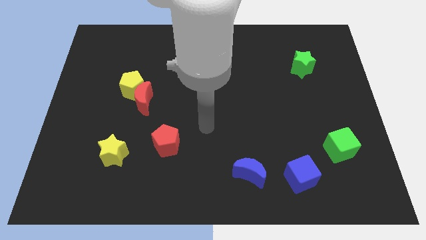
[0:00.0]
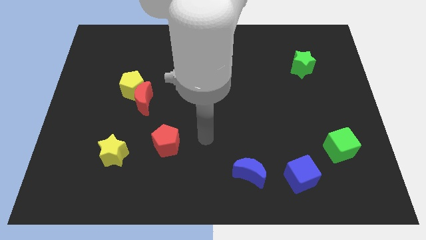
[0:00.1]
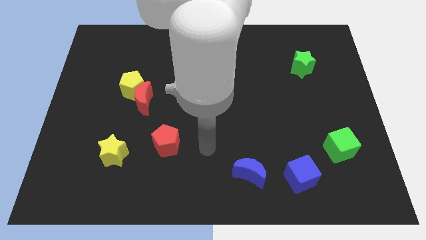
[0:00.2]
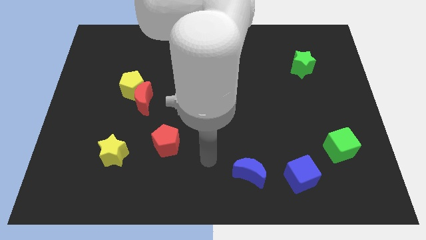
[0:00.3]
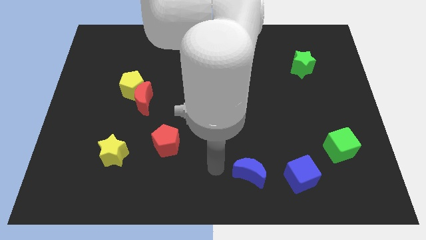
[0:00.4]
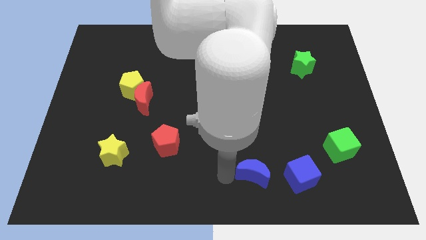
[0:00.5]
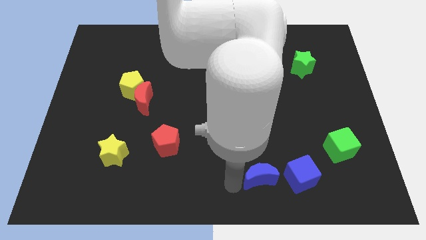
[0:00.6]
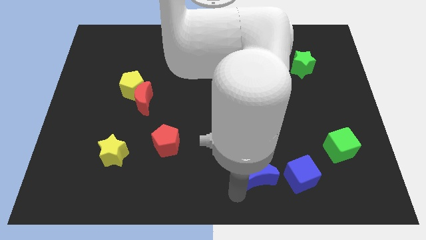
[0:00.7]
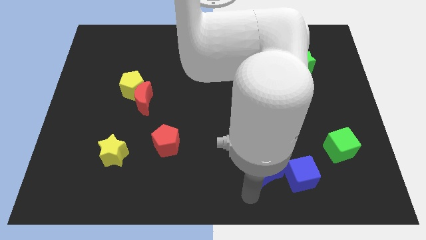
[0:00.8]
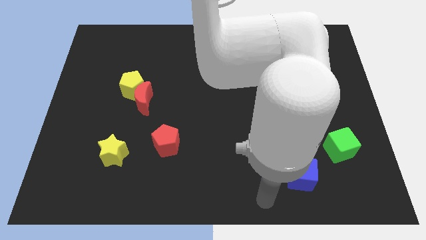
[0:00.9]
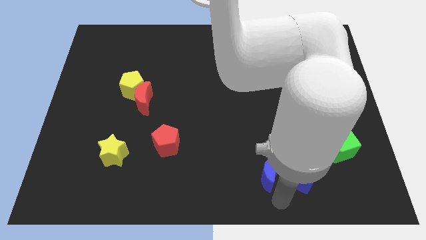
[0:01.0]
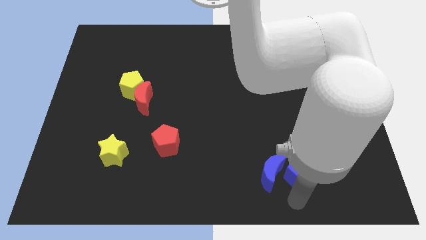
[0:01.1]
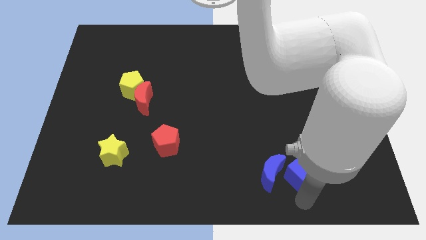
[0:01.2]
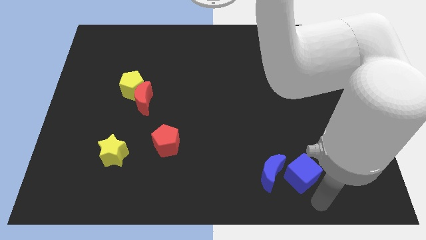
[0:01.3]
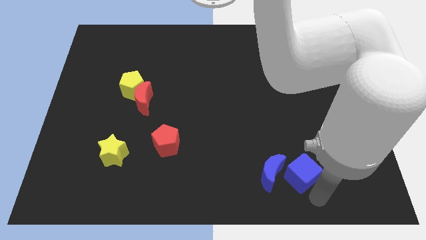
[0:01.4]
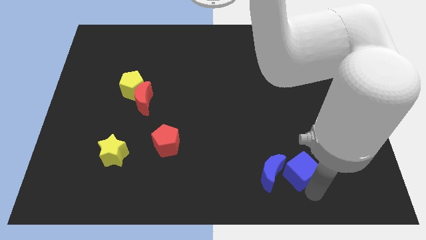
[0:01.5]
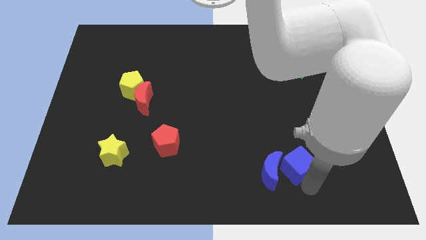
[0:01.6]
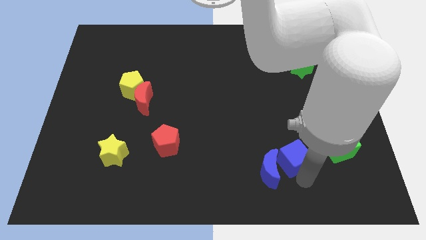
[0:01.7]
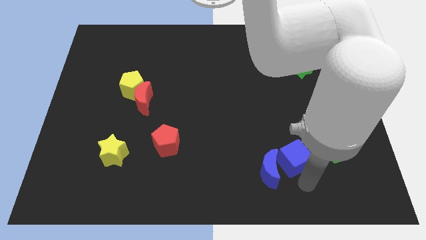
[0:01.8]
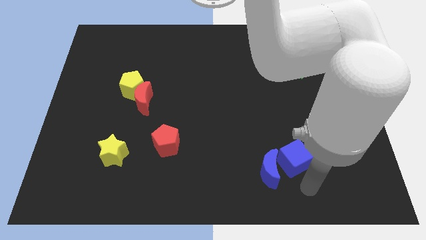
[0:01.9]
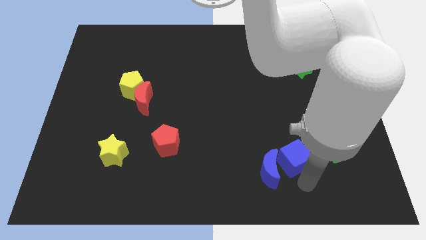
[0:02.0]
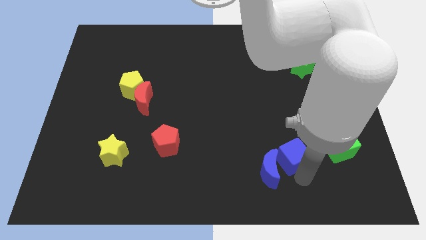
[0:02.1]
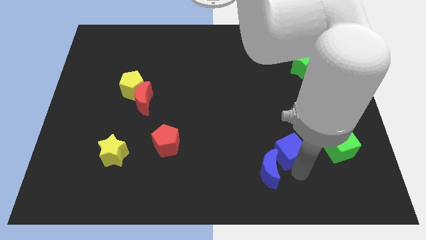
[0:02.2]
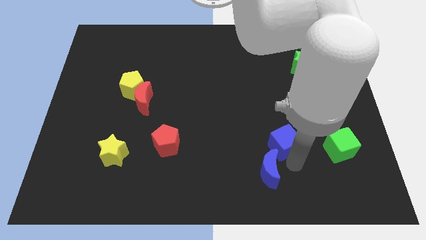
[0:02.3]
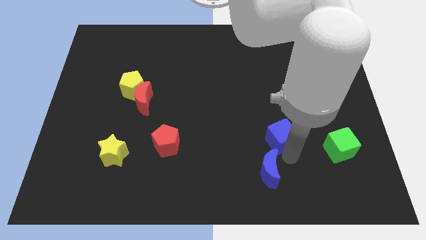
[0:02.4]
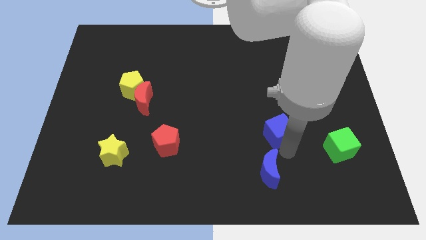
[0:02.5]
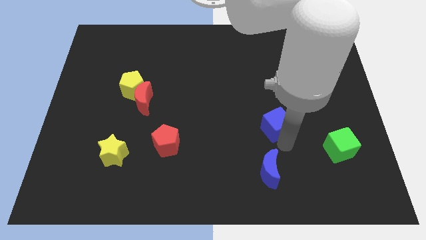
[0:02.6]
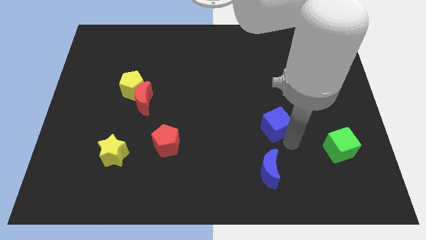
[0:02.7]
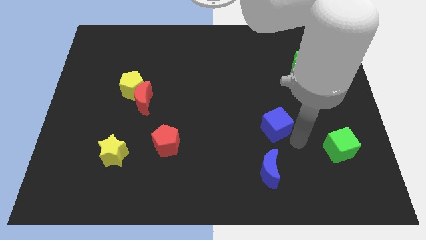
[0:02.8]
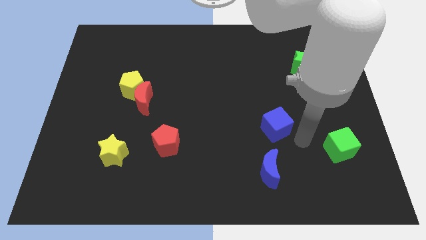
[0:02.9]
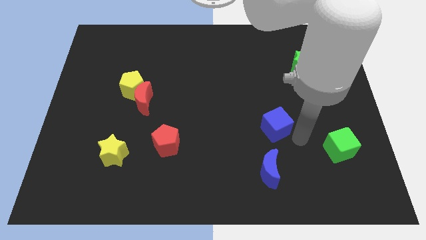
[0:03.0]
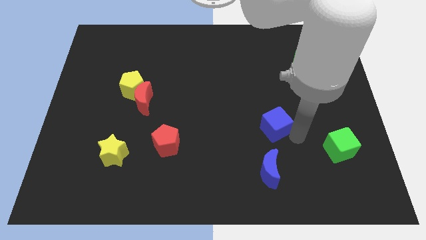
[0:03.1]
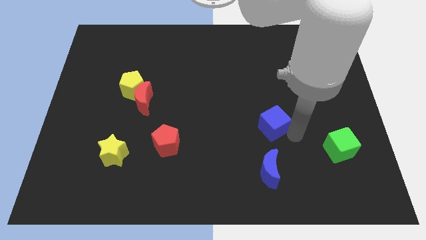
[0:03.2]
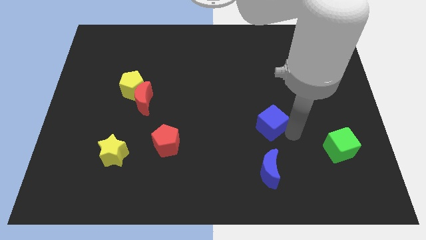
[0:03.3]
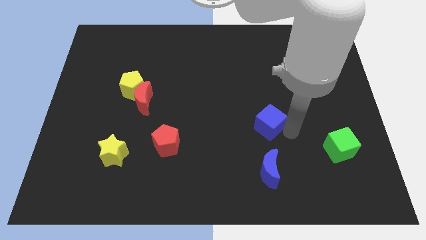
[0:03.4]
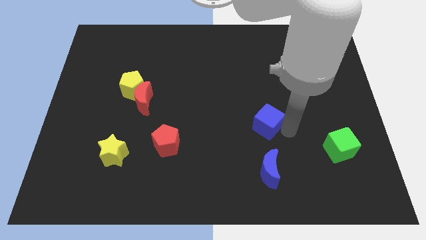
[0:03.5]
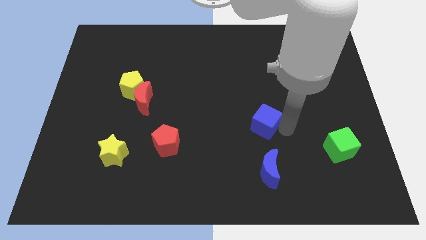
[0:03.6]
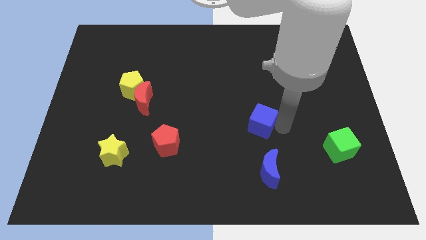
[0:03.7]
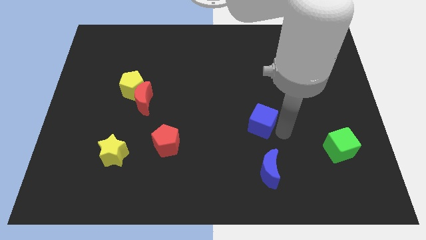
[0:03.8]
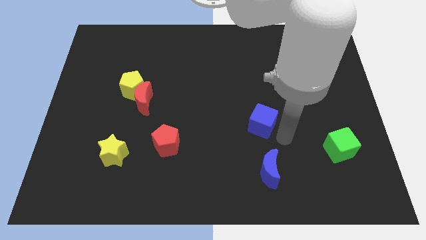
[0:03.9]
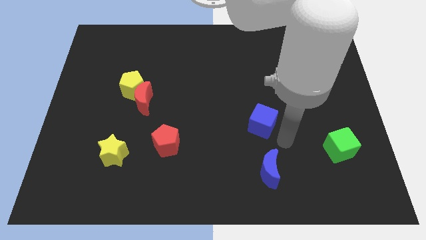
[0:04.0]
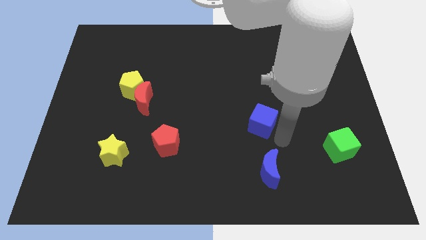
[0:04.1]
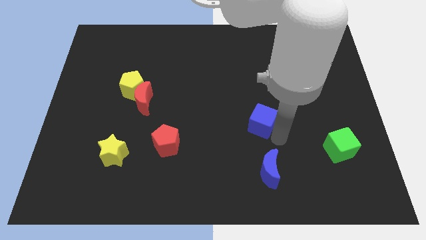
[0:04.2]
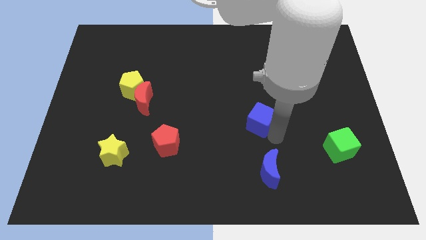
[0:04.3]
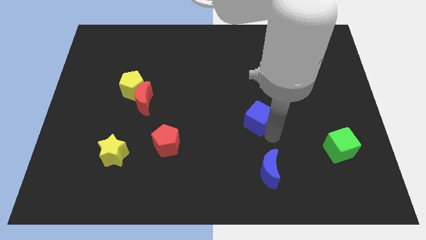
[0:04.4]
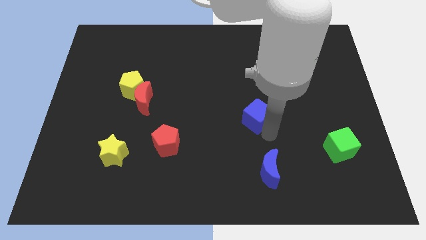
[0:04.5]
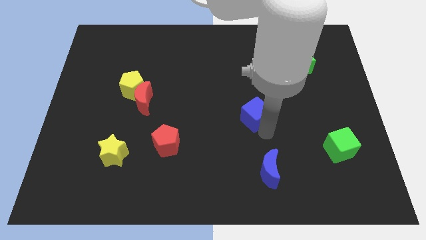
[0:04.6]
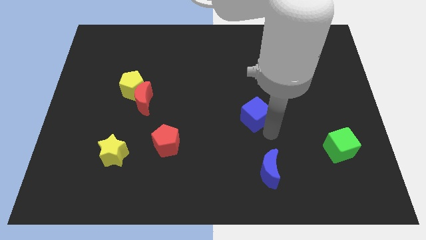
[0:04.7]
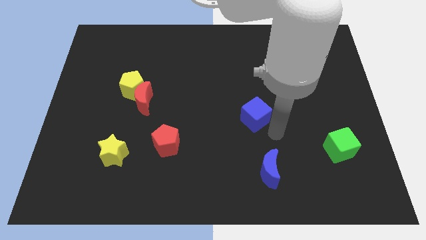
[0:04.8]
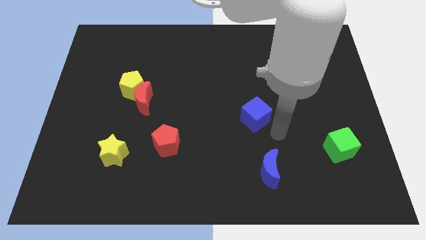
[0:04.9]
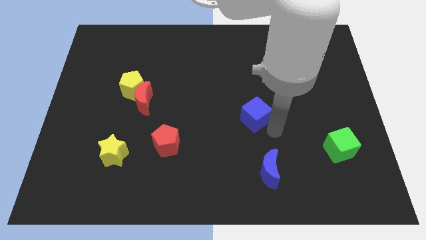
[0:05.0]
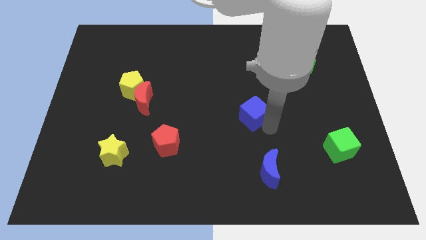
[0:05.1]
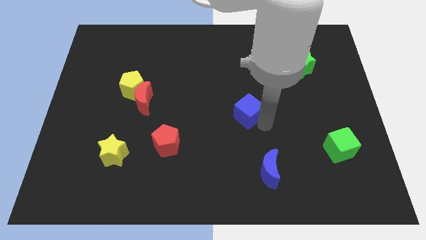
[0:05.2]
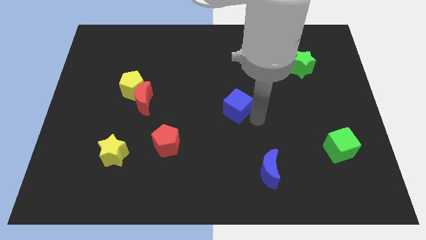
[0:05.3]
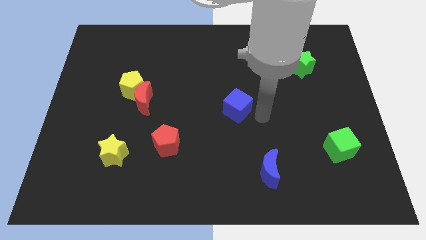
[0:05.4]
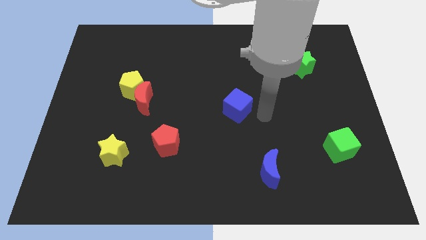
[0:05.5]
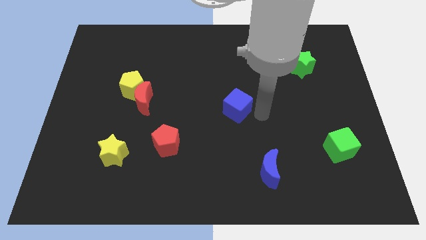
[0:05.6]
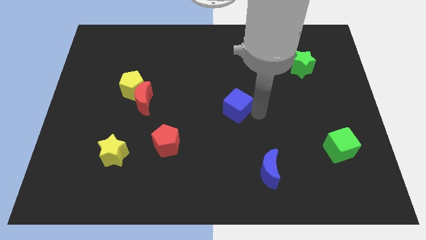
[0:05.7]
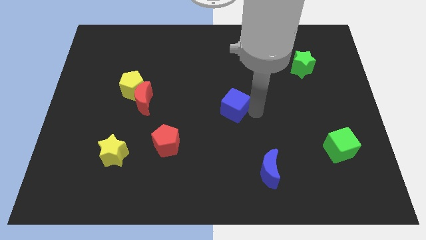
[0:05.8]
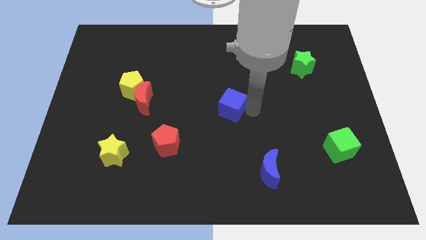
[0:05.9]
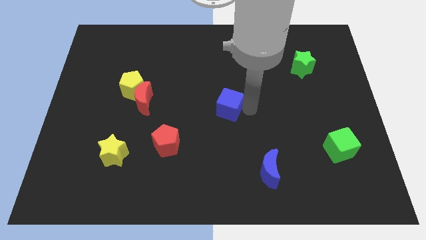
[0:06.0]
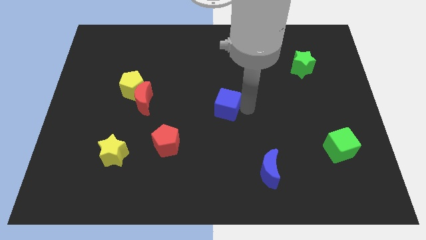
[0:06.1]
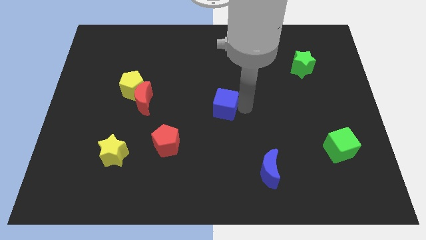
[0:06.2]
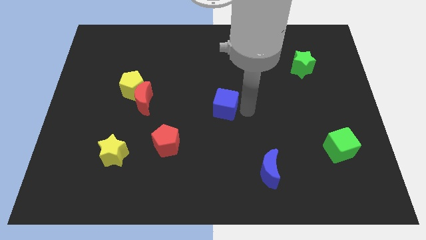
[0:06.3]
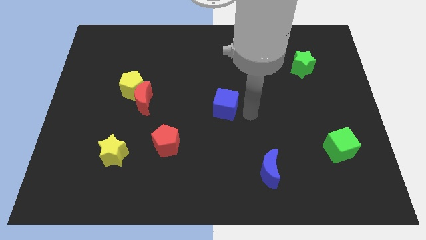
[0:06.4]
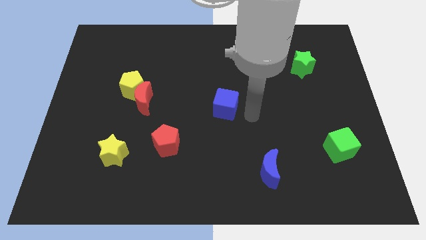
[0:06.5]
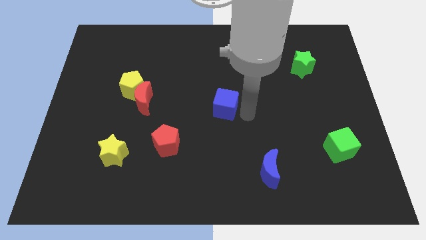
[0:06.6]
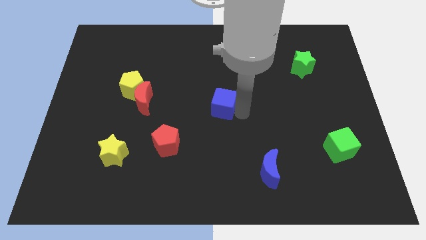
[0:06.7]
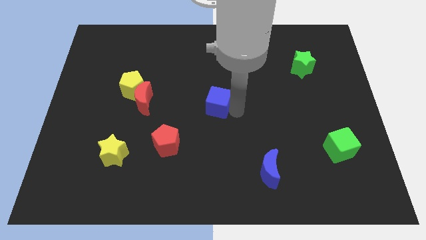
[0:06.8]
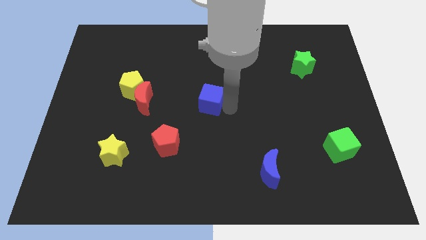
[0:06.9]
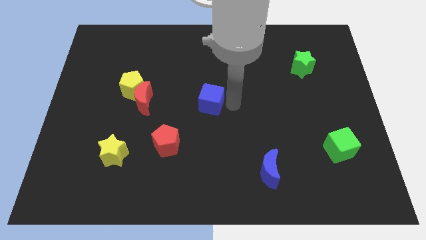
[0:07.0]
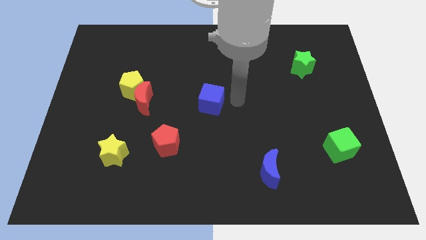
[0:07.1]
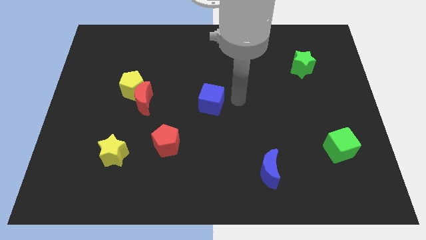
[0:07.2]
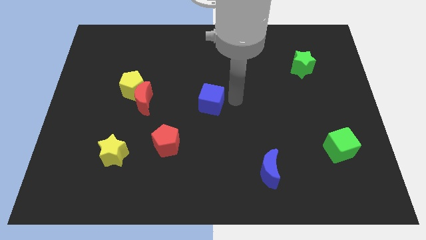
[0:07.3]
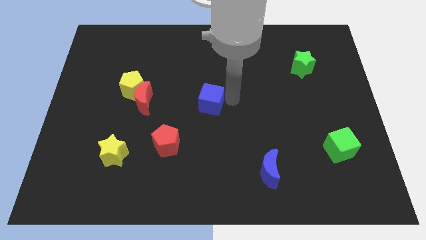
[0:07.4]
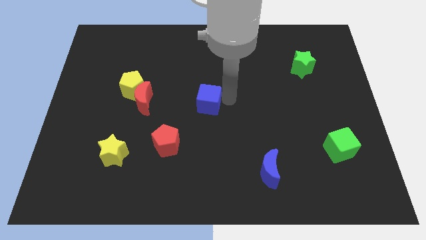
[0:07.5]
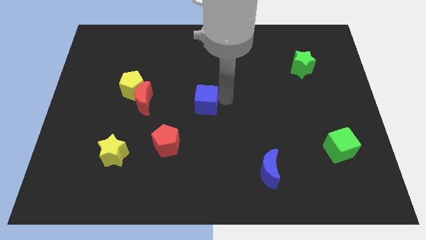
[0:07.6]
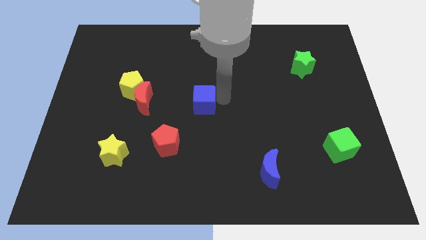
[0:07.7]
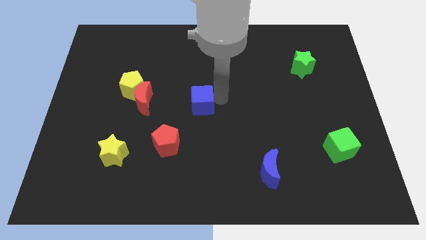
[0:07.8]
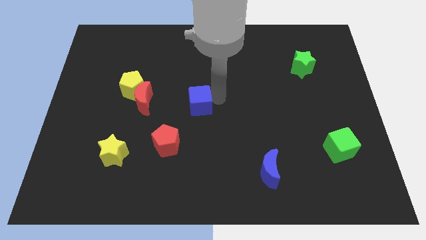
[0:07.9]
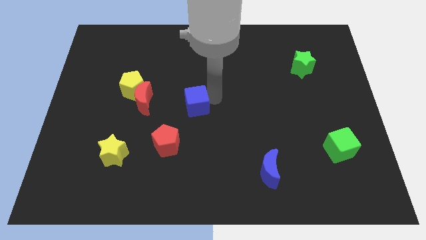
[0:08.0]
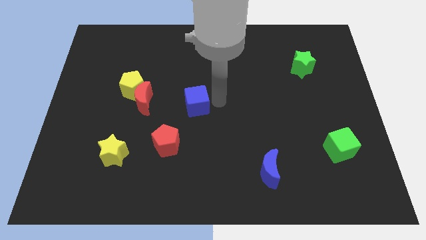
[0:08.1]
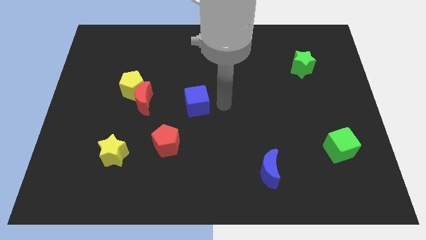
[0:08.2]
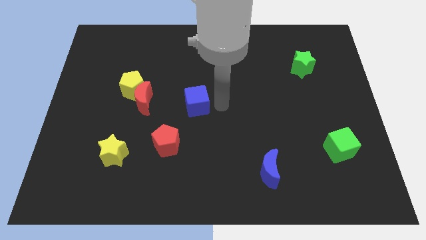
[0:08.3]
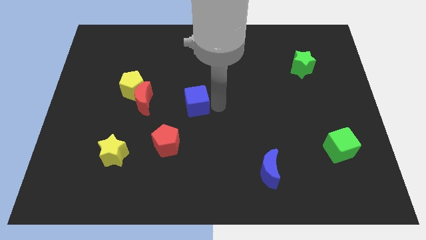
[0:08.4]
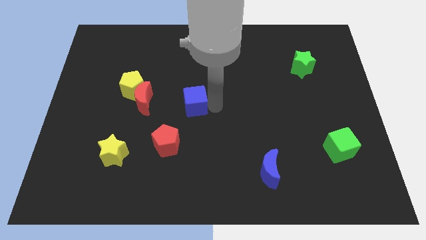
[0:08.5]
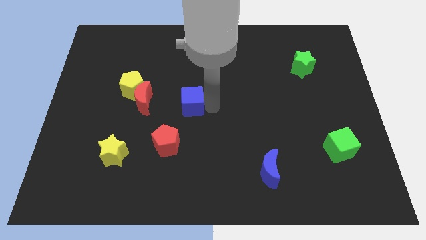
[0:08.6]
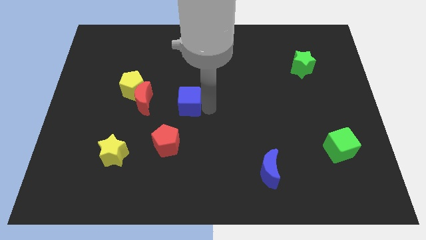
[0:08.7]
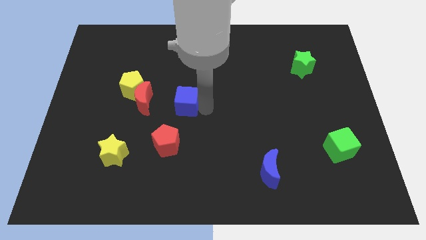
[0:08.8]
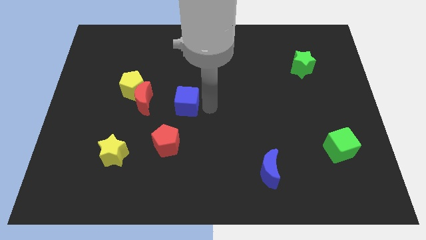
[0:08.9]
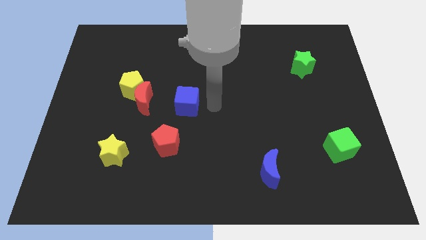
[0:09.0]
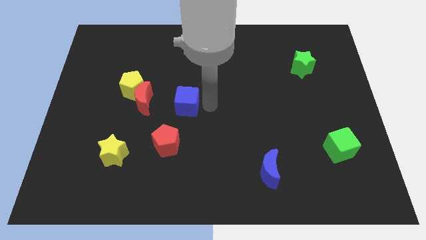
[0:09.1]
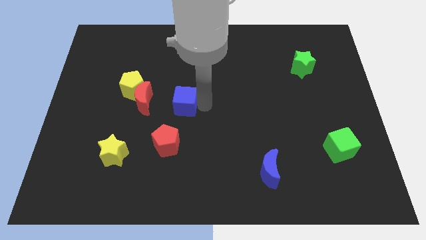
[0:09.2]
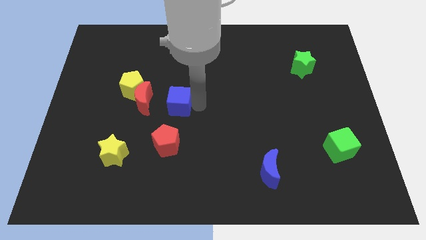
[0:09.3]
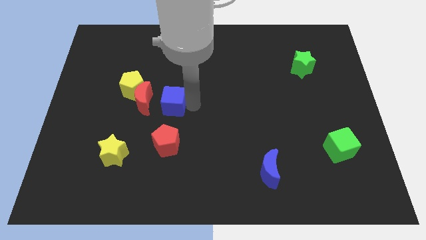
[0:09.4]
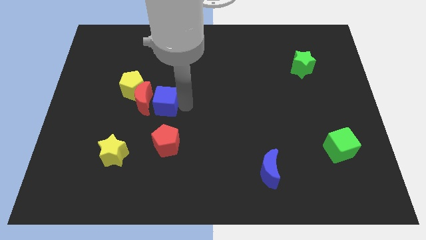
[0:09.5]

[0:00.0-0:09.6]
slide the blue cube to the red moon
